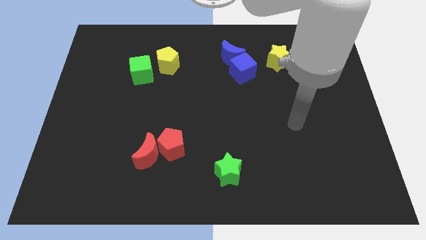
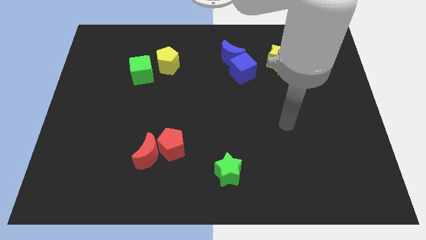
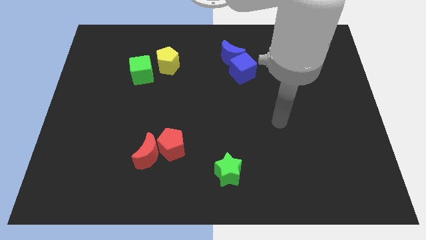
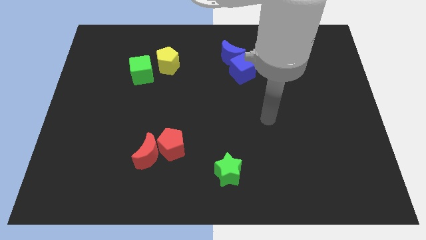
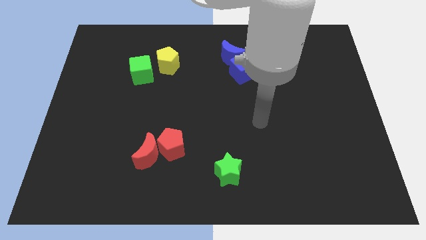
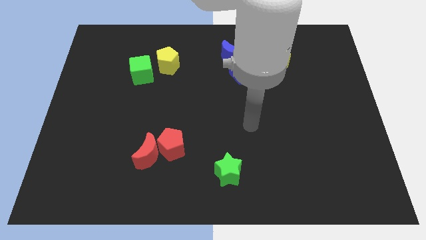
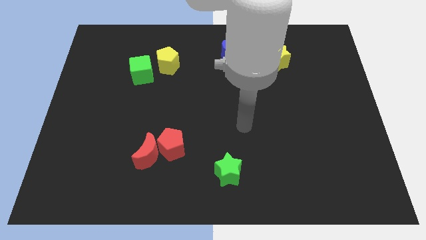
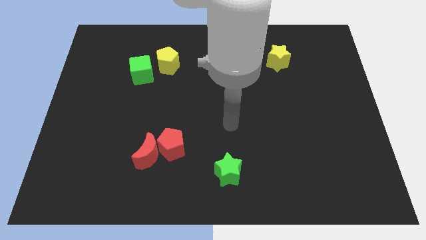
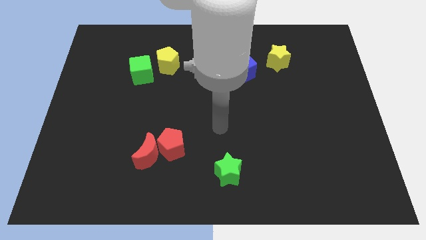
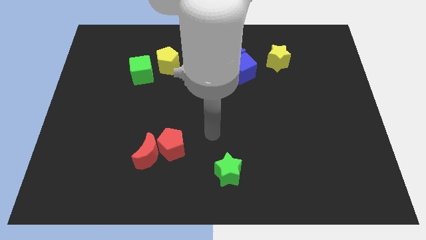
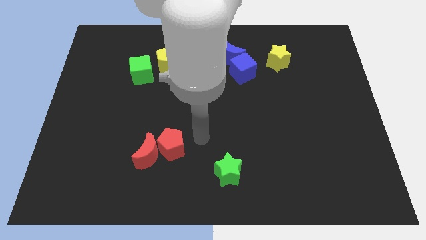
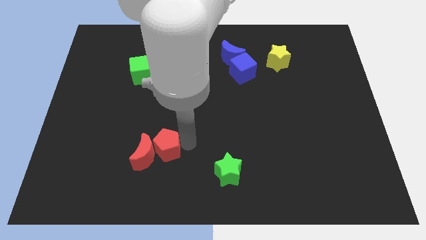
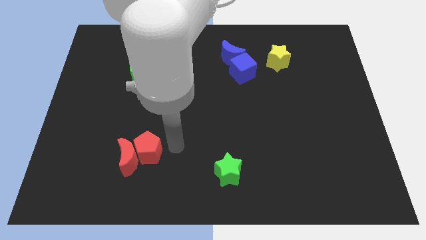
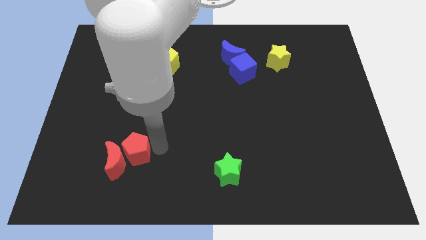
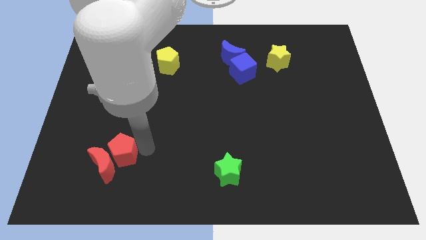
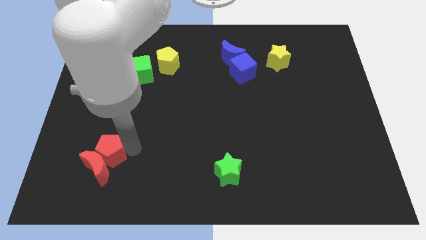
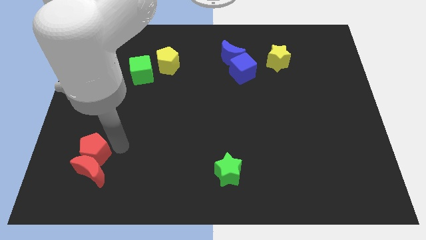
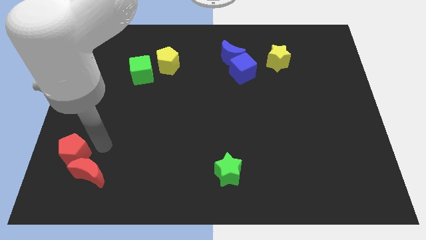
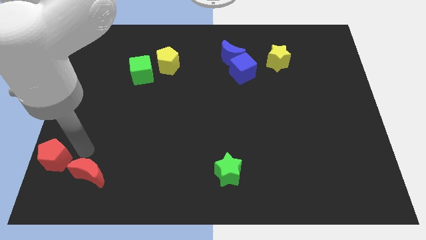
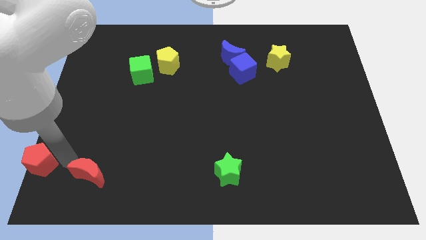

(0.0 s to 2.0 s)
separate the red moon from the red pentagon

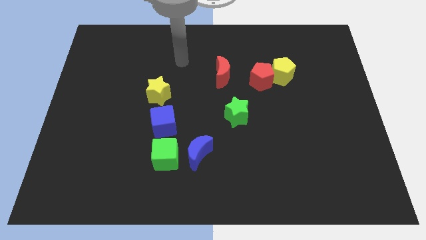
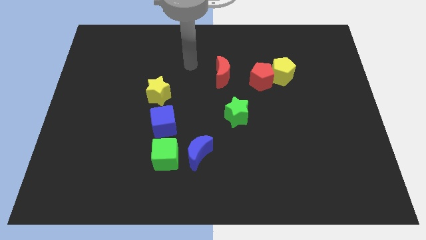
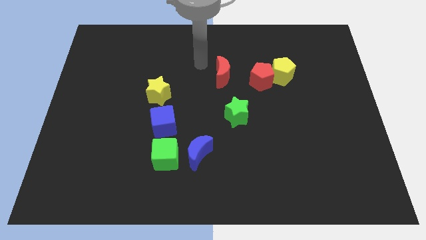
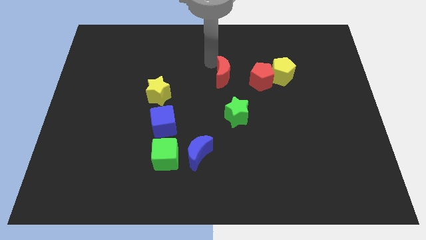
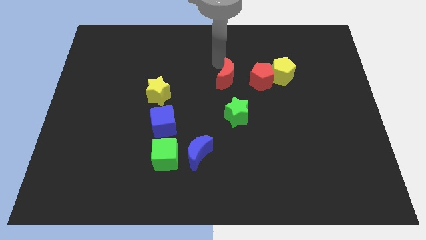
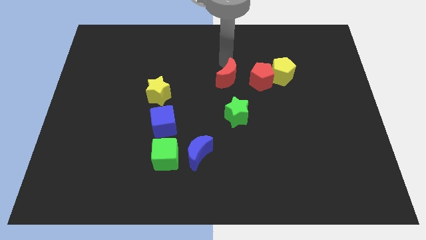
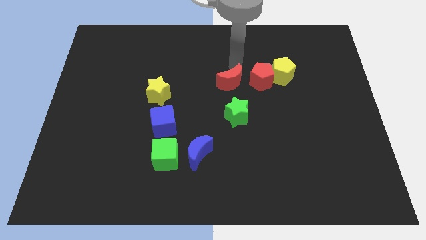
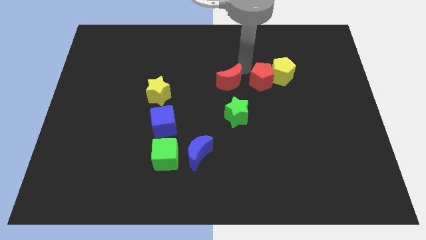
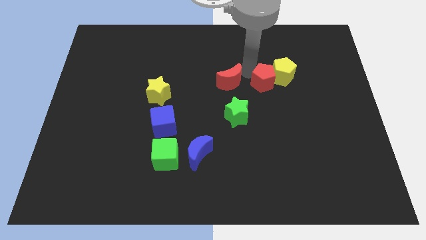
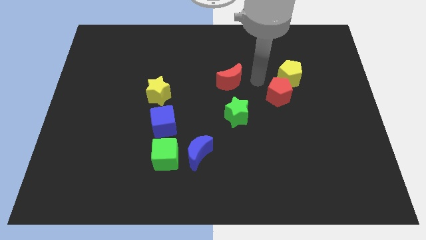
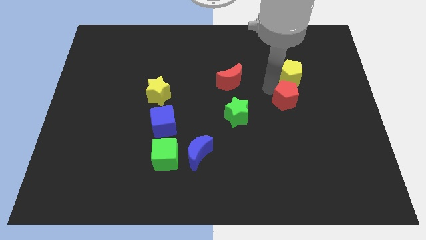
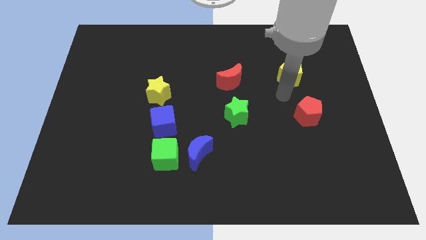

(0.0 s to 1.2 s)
separate the yellow pentagon from the red pentagon

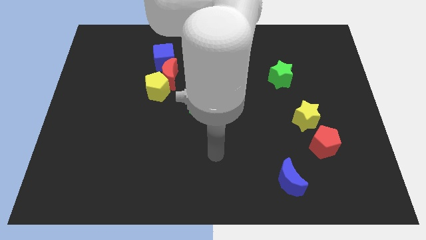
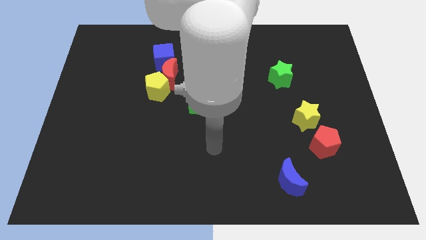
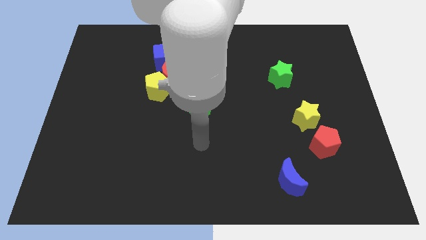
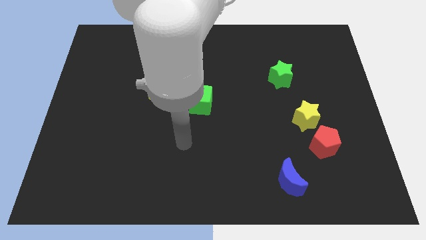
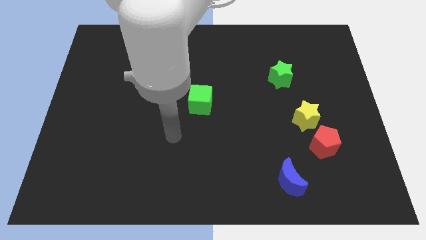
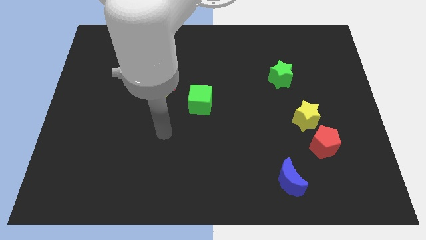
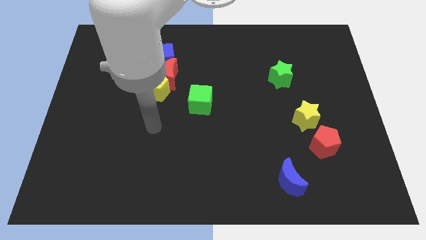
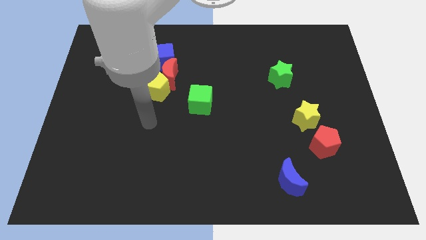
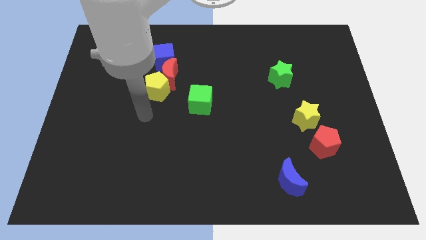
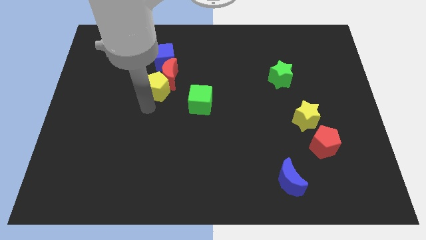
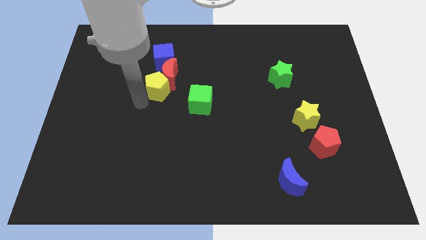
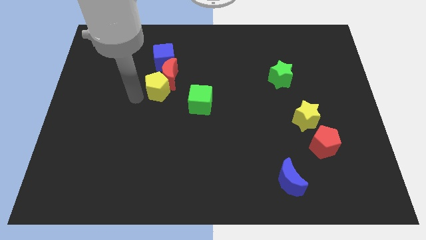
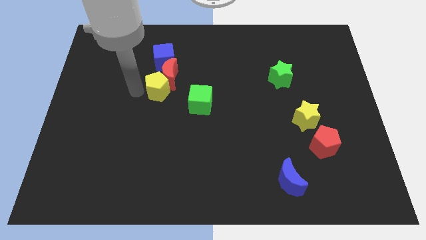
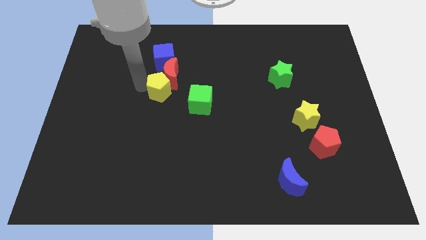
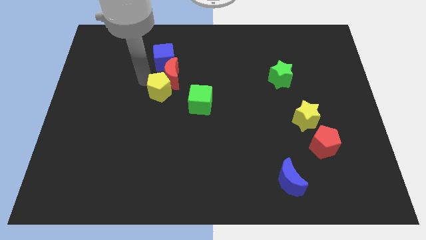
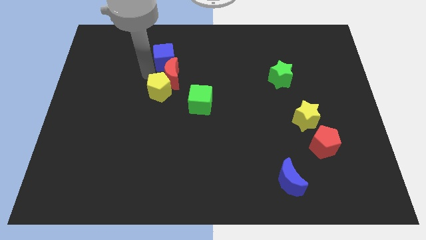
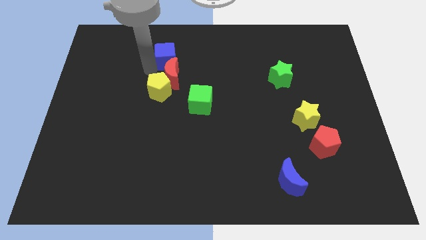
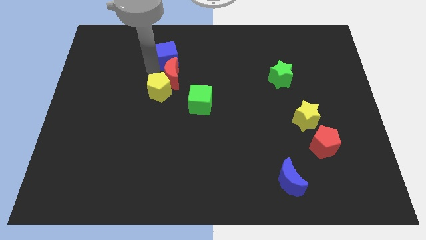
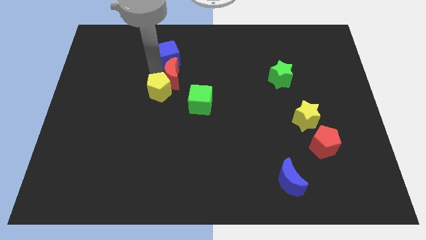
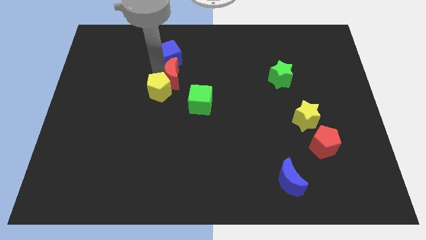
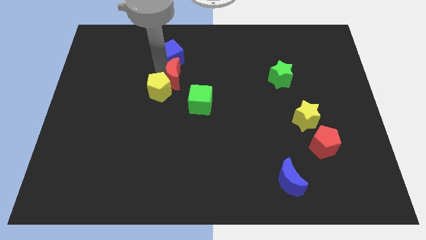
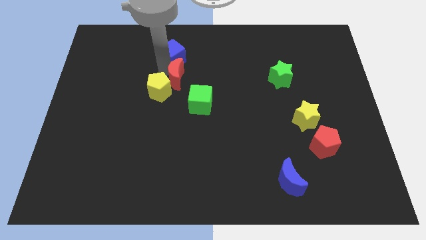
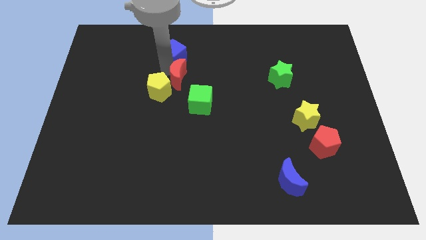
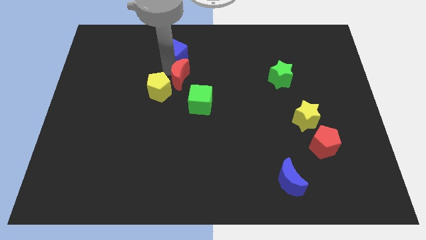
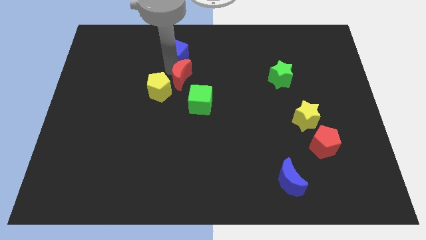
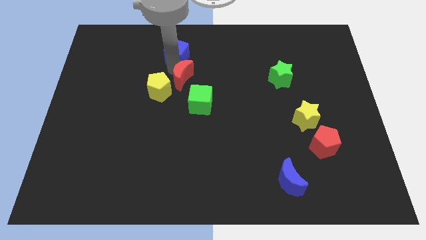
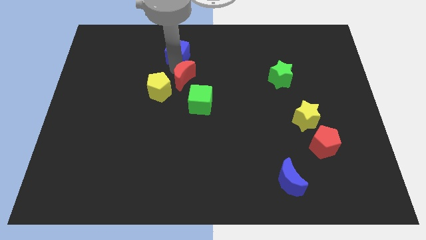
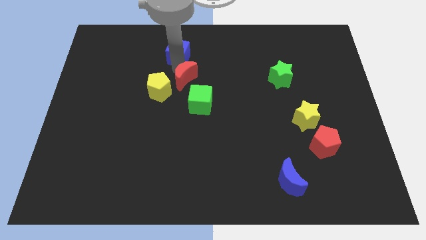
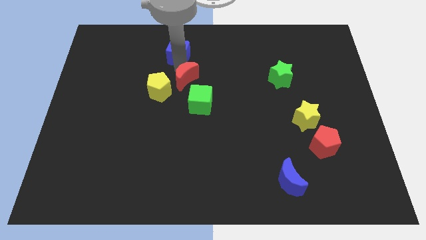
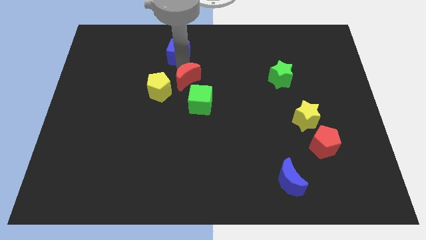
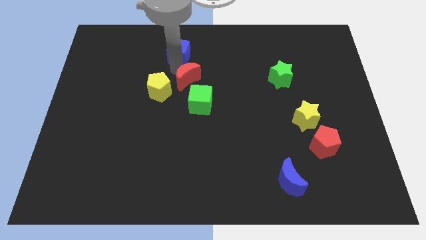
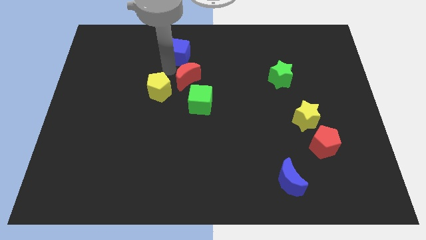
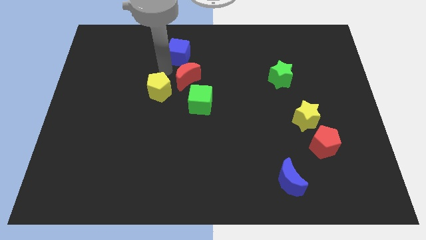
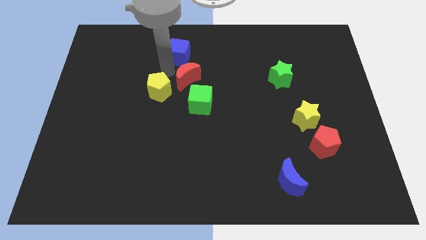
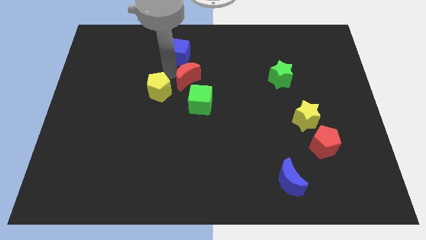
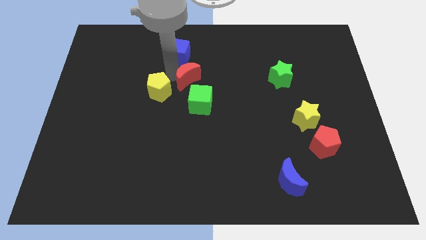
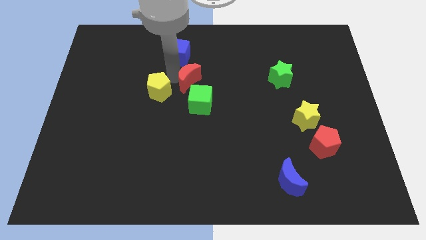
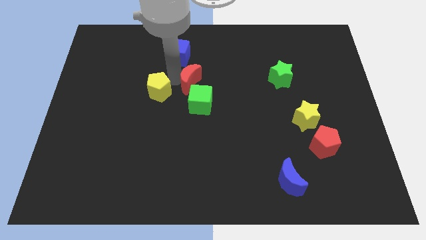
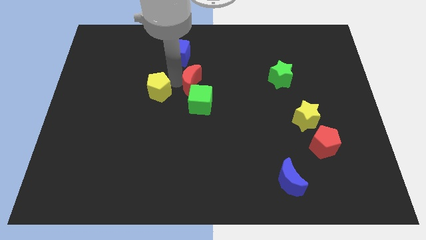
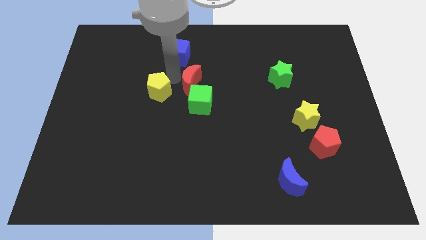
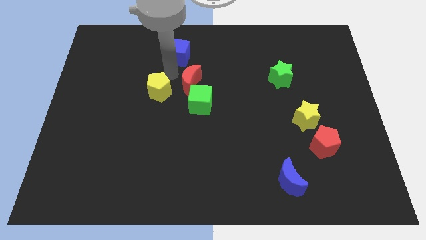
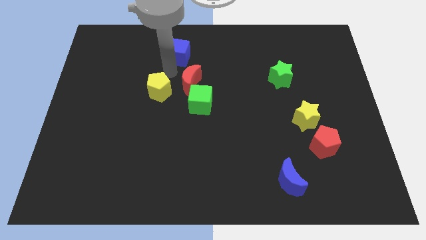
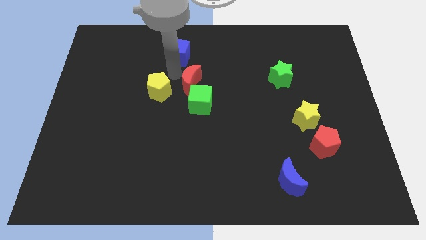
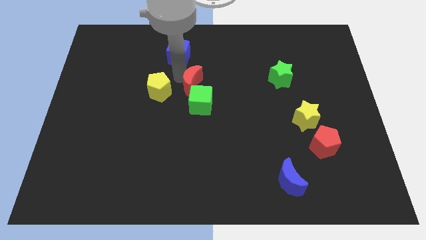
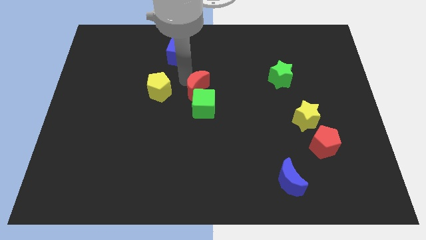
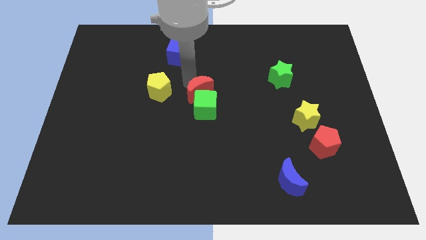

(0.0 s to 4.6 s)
pull the red moon apart from the yellow pentagon and blue cube

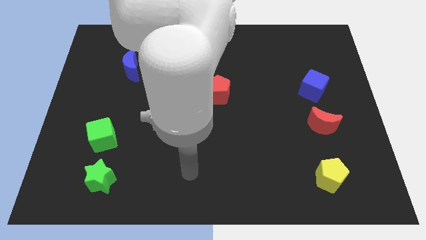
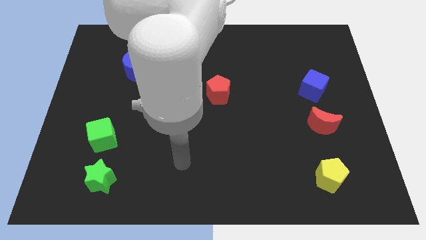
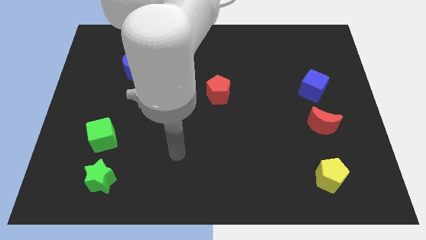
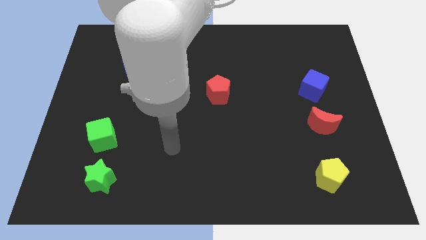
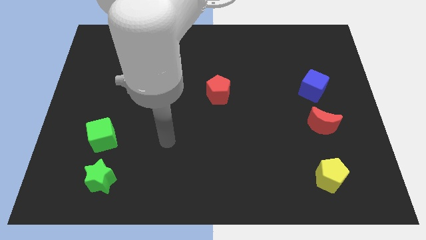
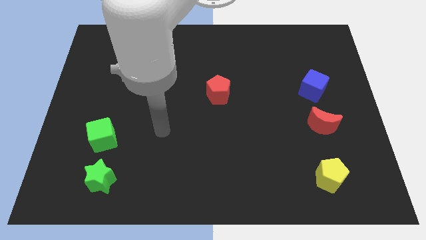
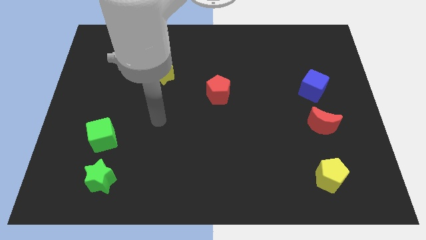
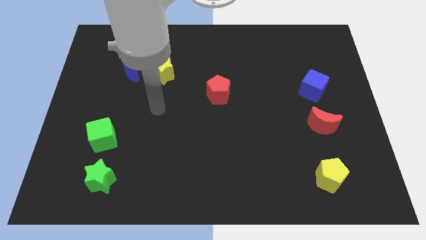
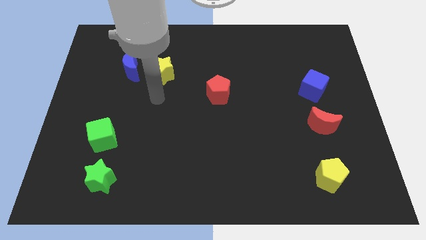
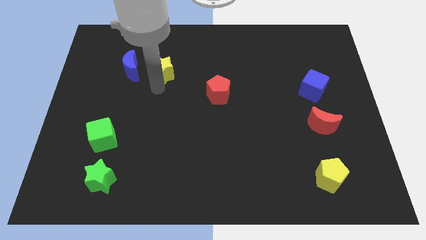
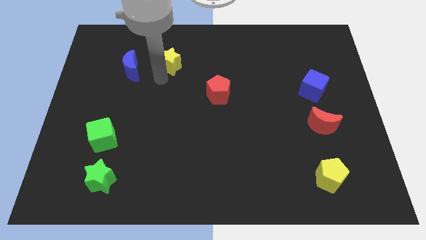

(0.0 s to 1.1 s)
pull the blue moon apart from the yellow star

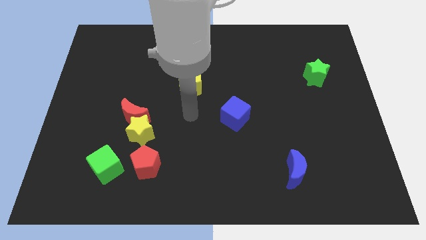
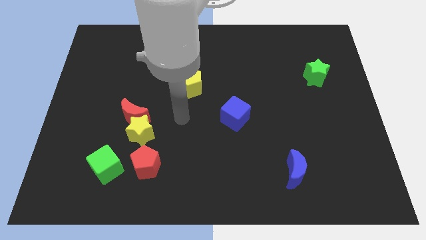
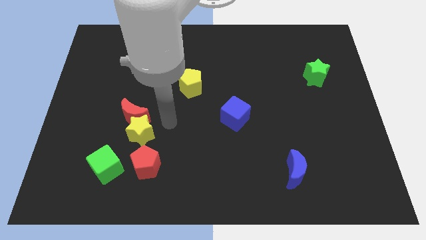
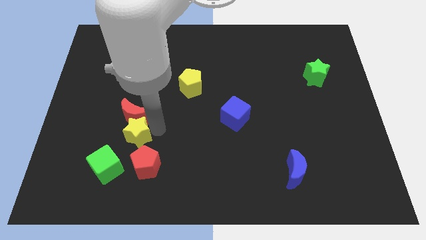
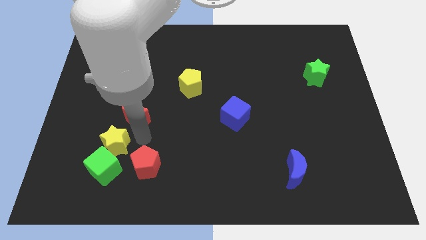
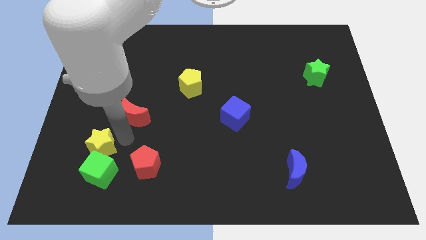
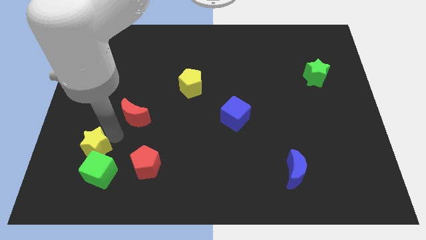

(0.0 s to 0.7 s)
pull the red moon apart from the yellow star
